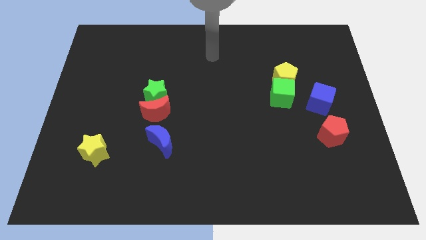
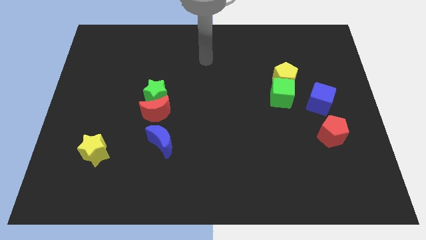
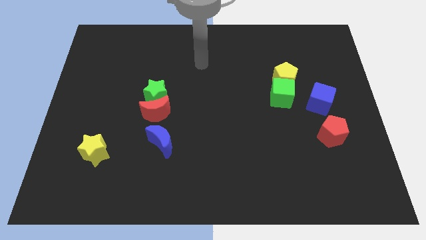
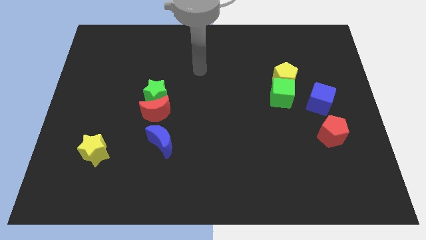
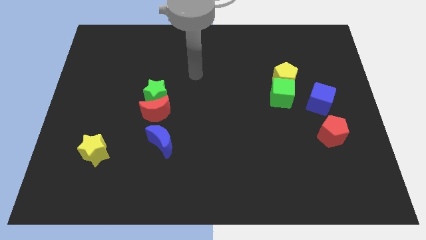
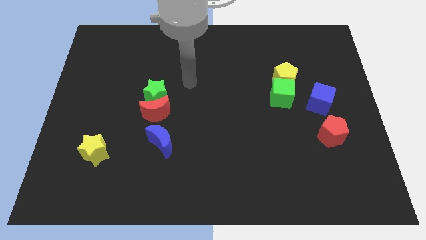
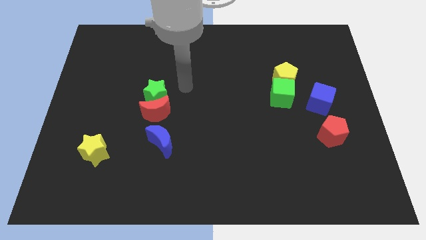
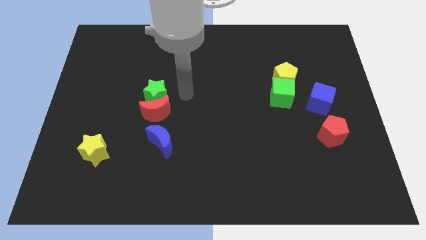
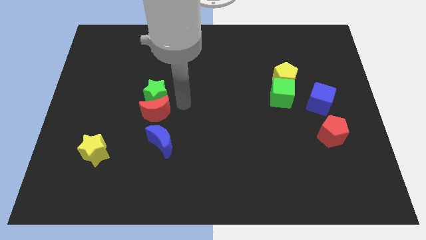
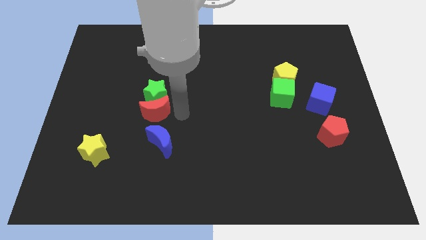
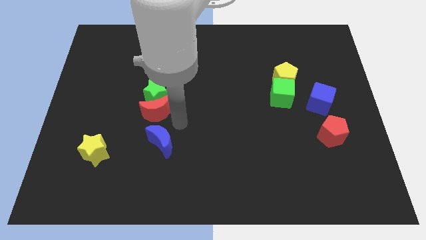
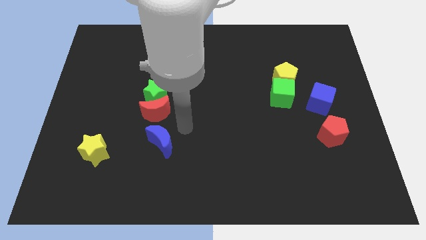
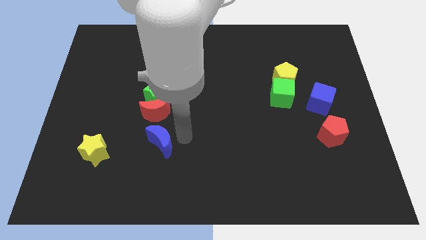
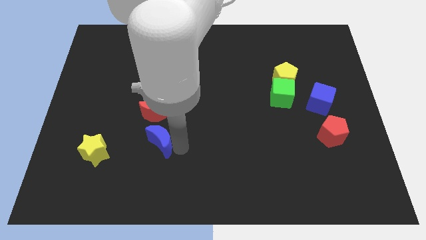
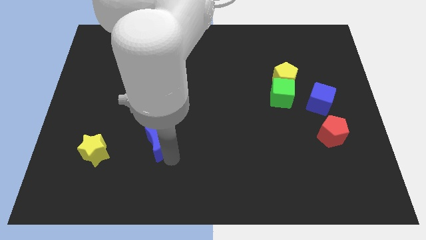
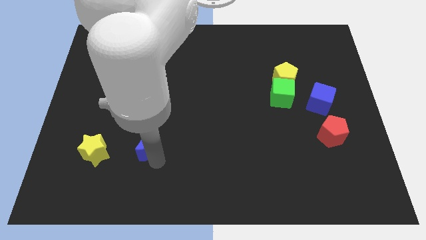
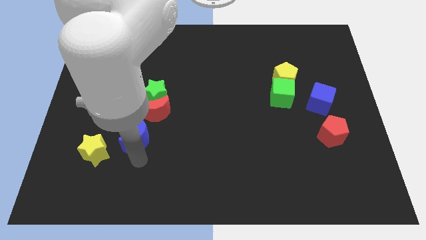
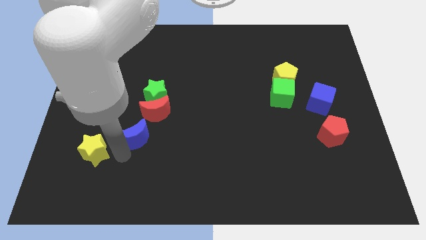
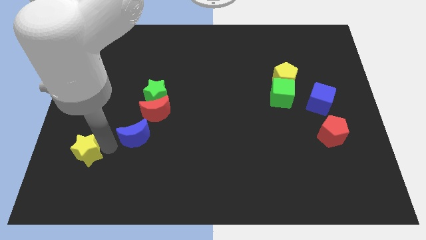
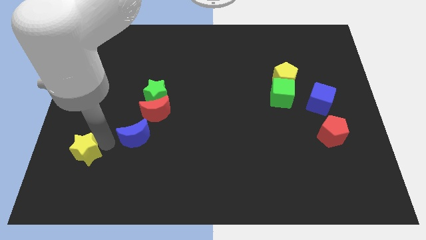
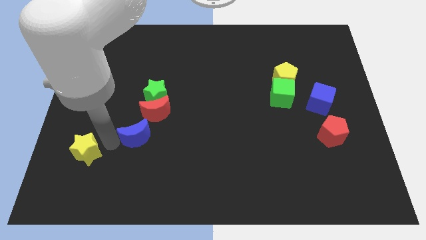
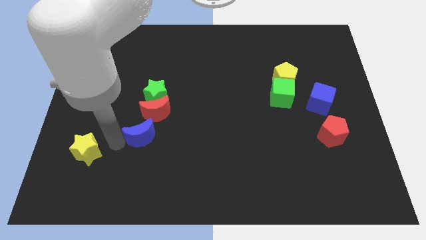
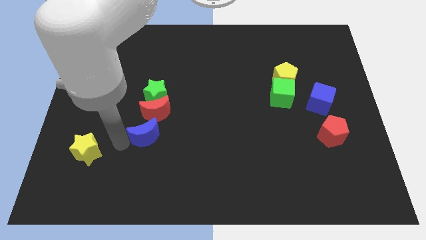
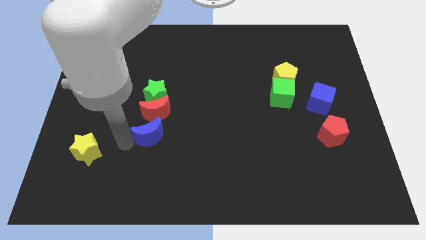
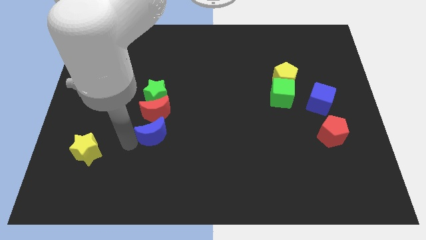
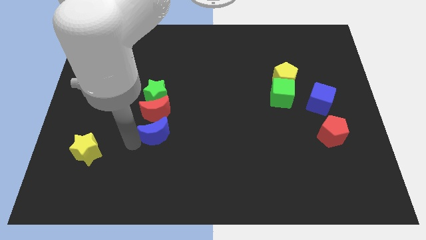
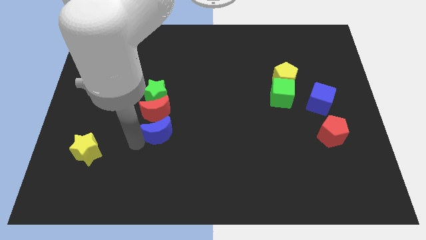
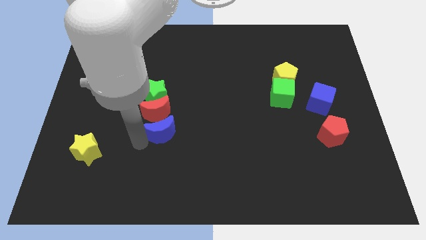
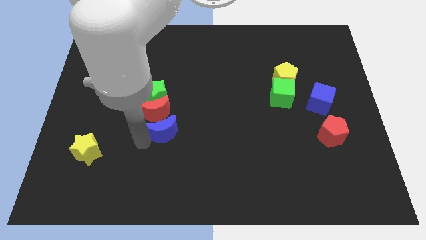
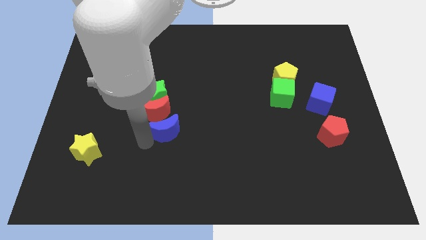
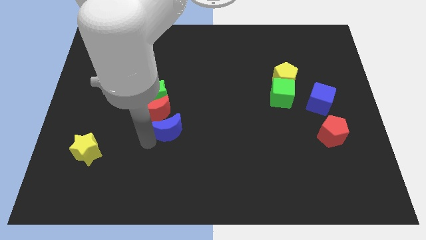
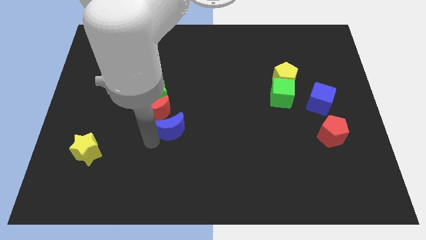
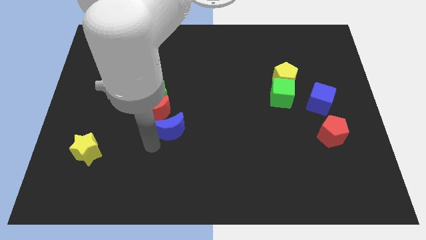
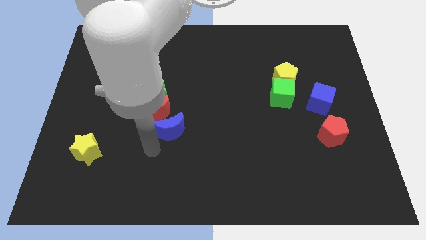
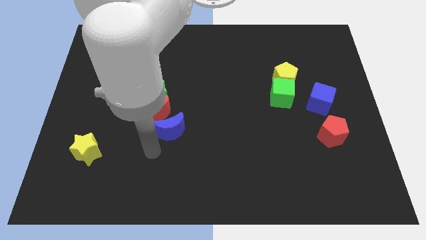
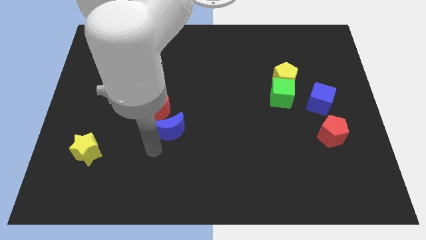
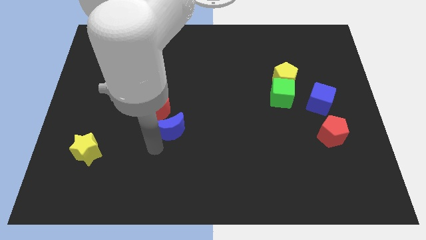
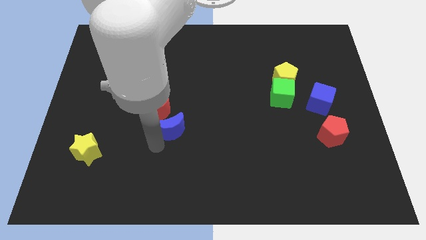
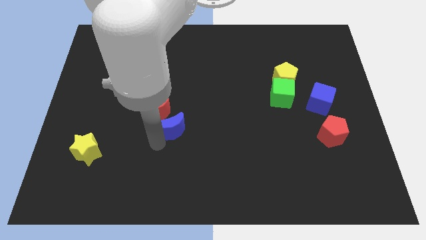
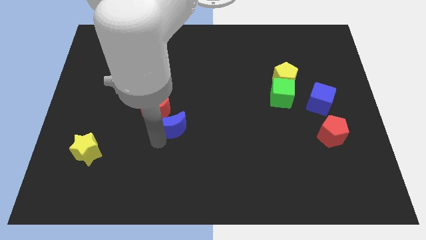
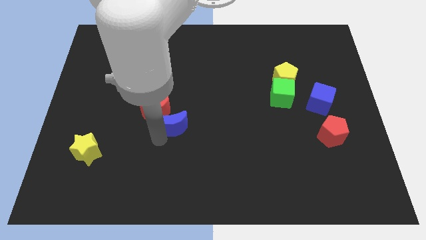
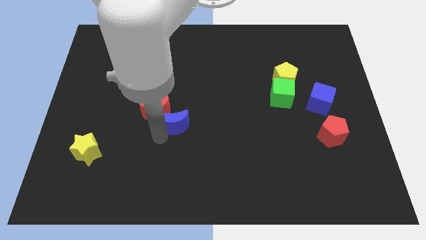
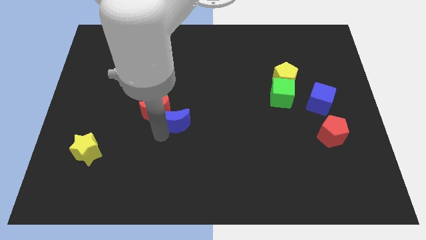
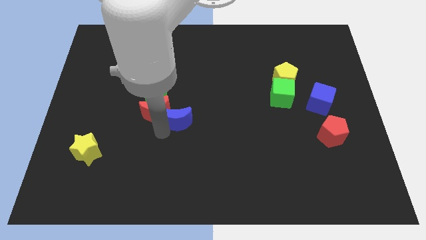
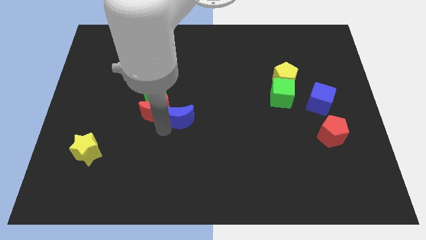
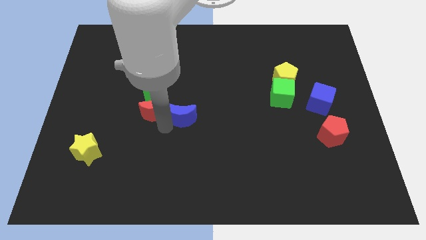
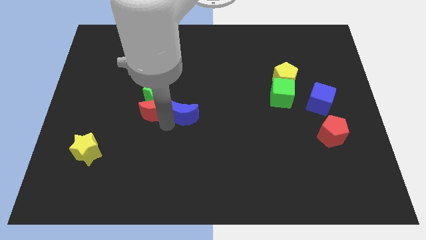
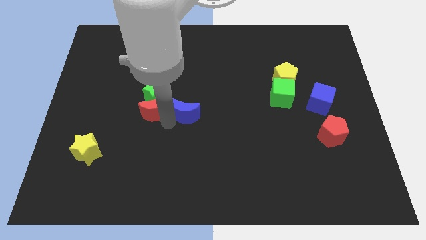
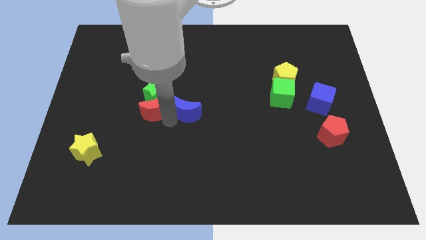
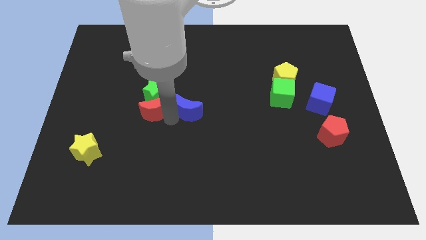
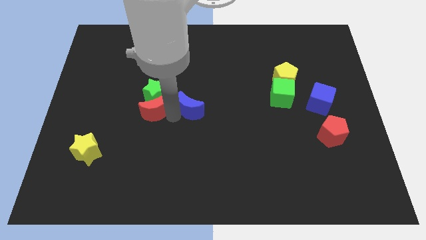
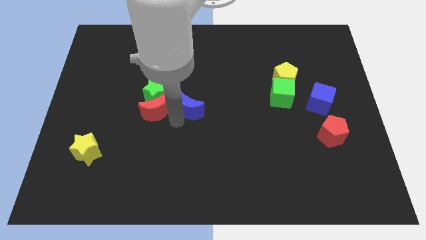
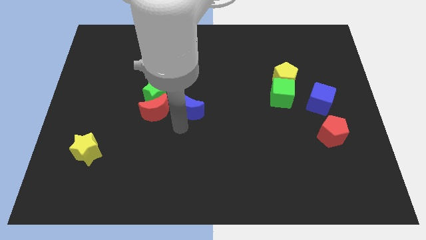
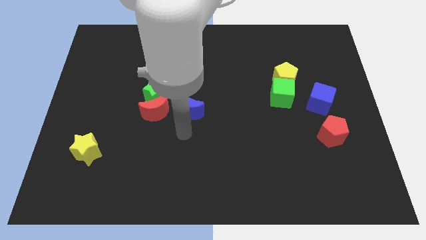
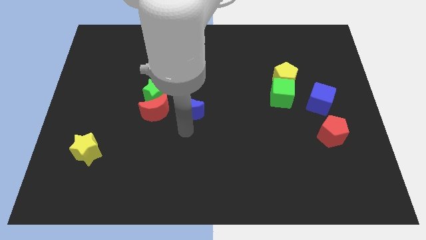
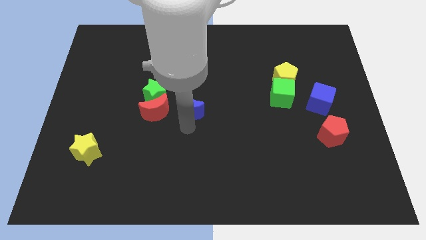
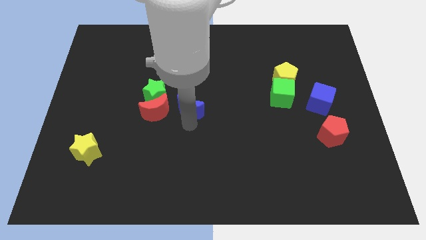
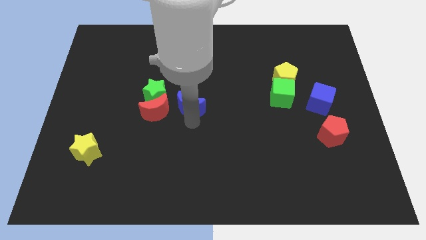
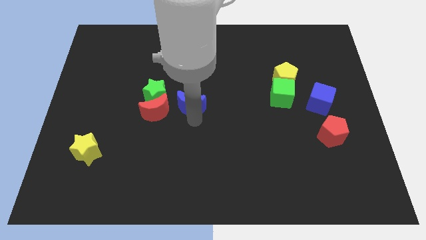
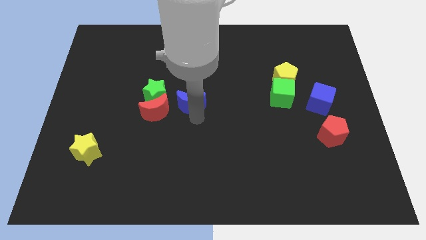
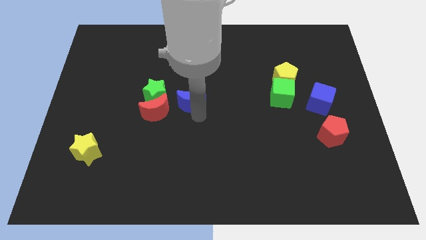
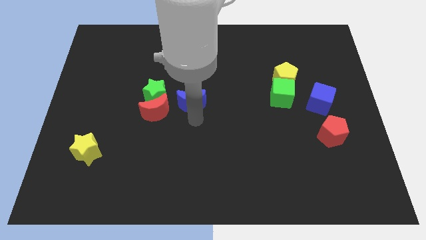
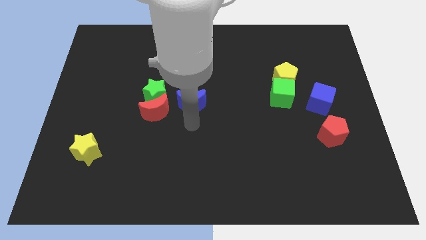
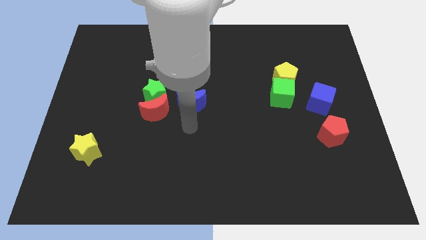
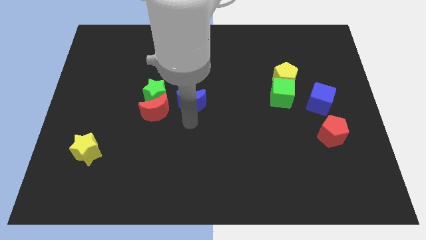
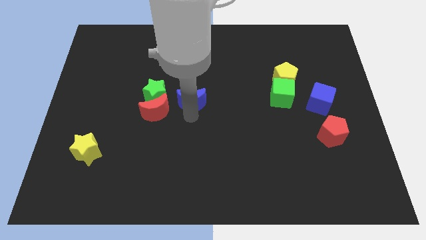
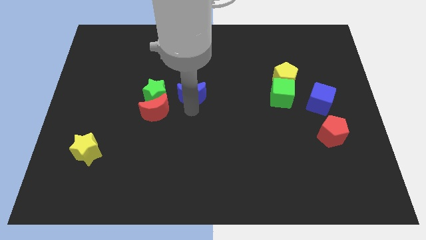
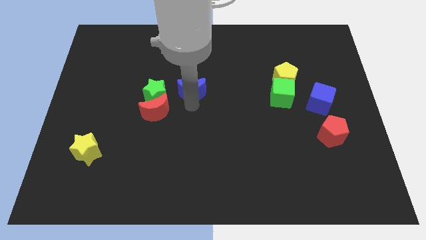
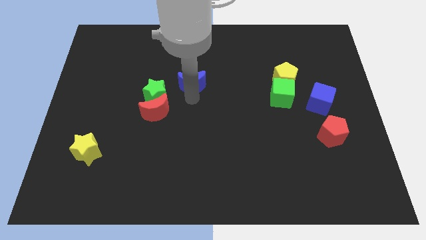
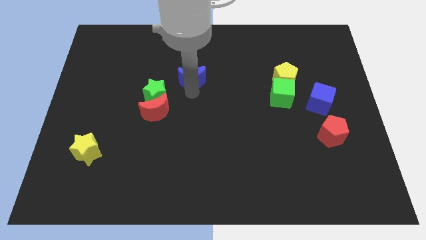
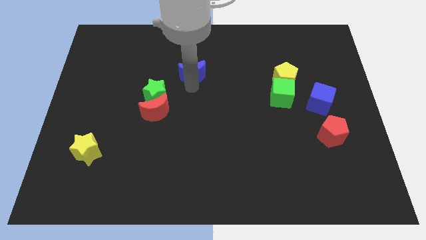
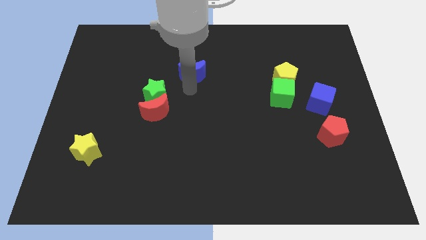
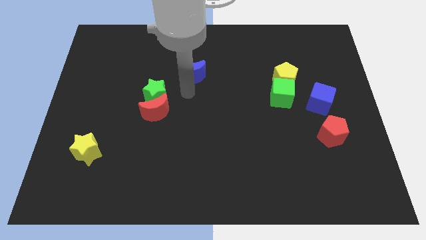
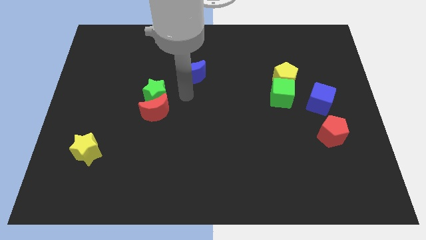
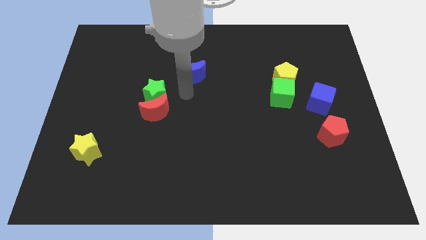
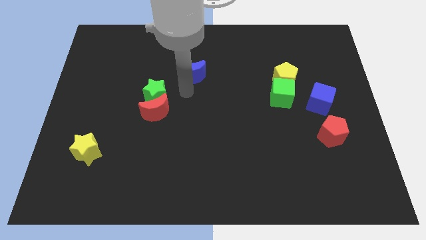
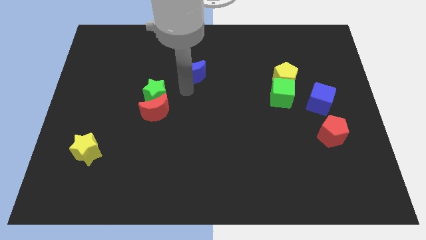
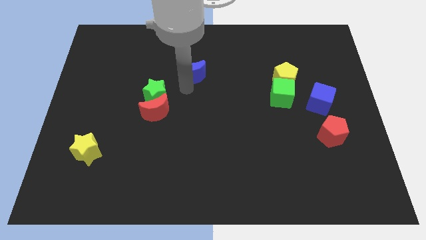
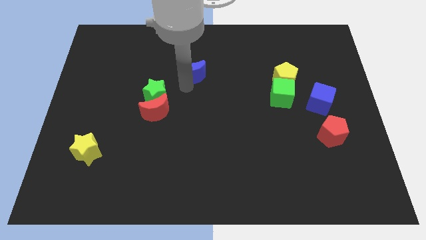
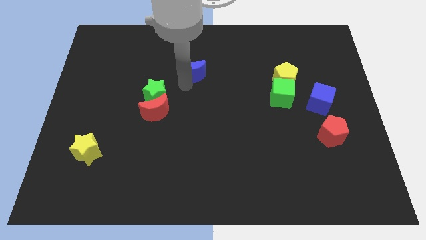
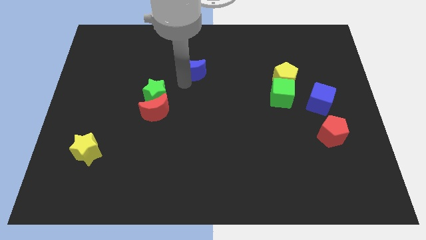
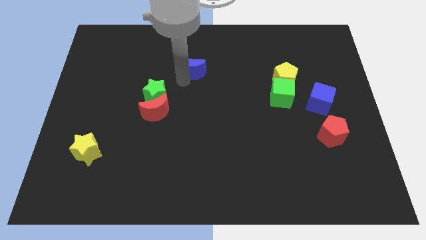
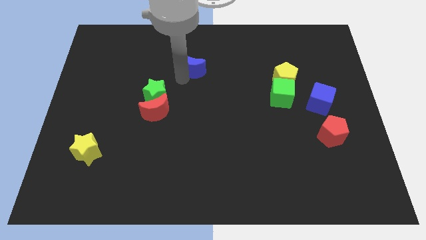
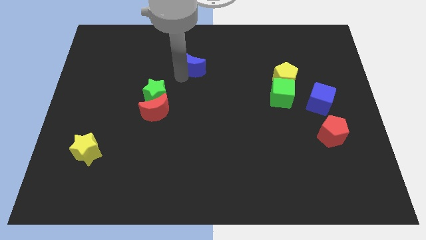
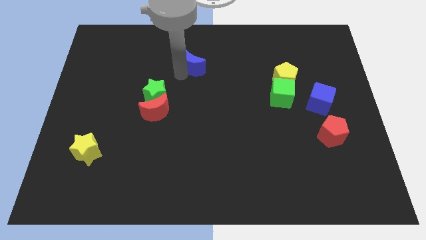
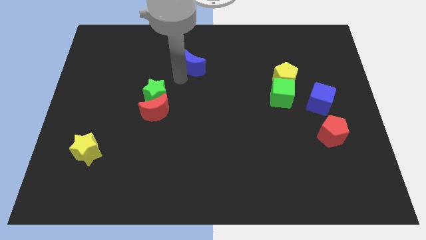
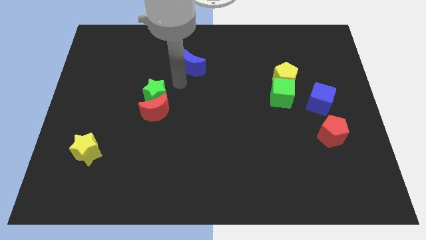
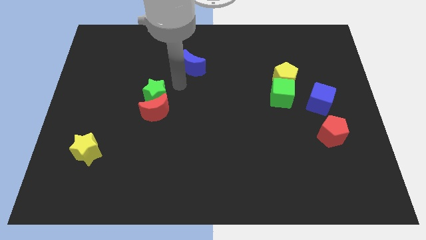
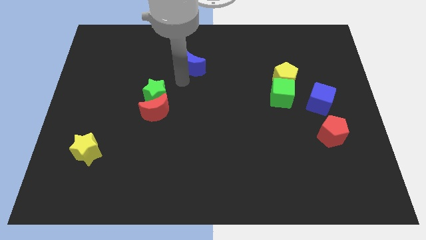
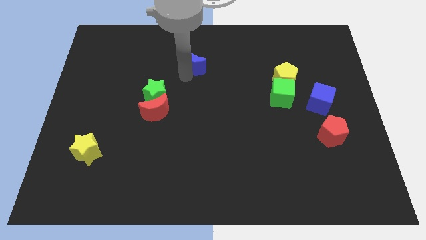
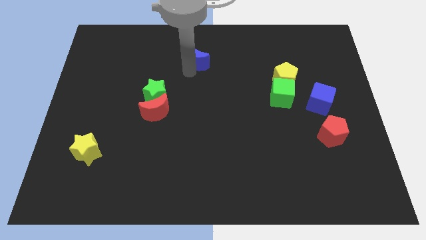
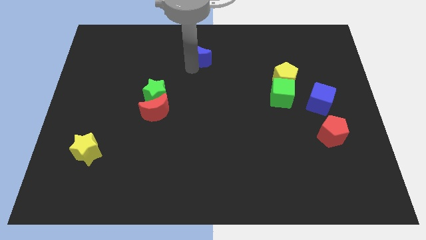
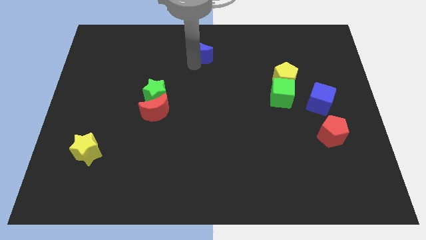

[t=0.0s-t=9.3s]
put the blue moon to the top side
